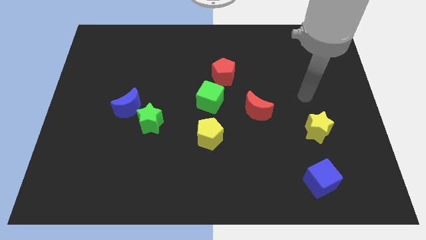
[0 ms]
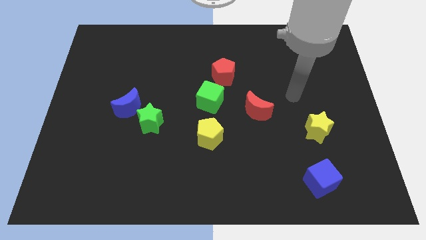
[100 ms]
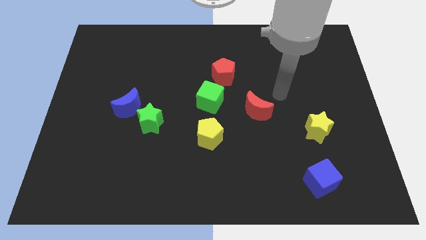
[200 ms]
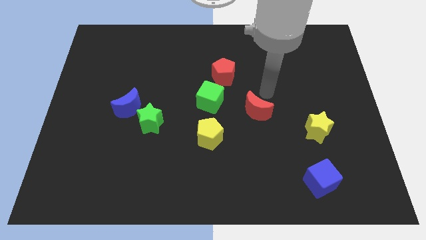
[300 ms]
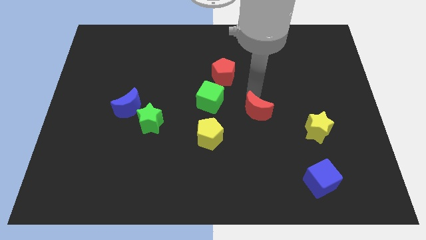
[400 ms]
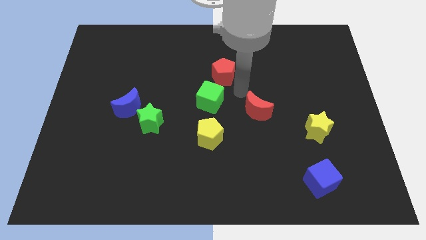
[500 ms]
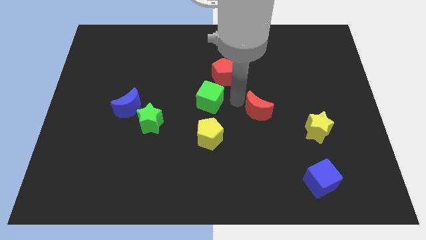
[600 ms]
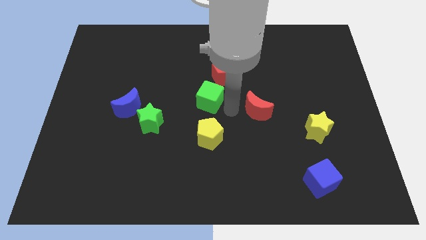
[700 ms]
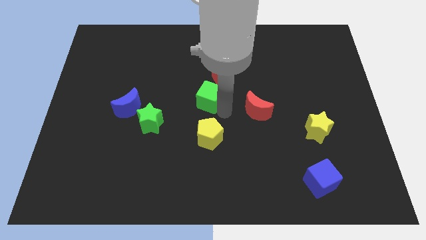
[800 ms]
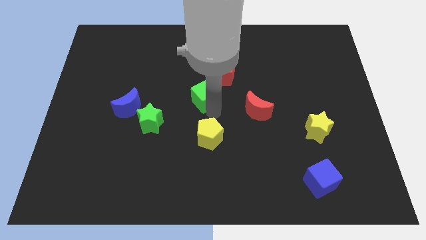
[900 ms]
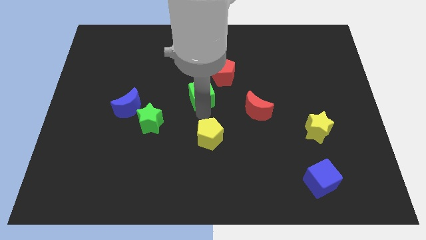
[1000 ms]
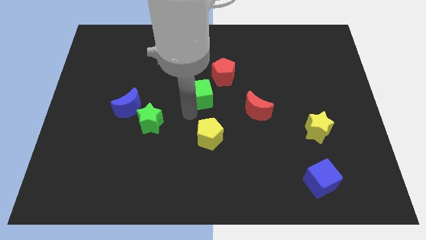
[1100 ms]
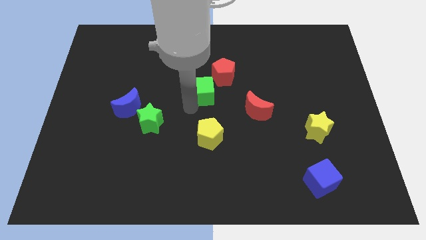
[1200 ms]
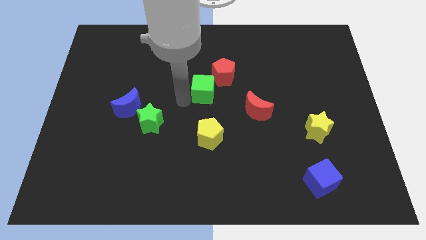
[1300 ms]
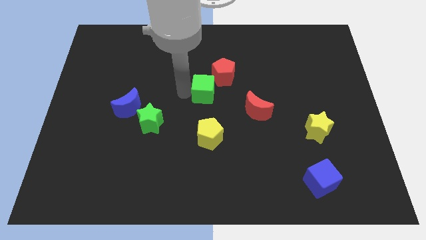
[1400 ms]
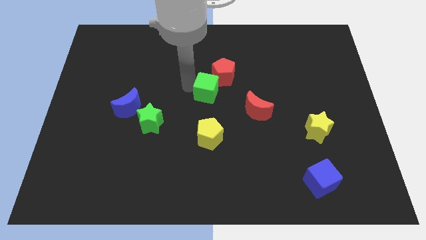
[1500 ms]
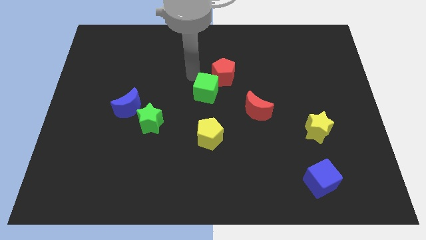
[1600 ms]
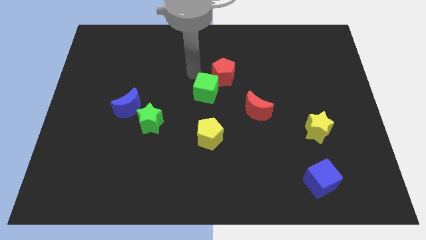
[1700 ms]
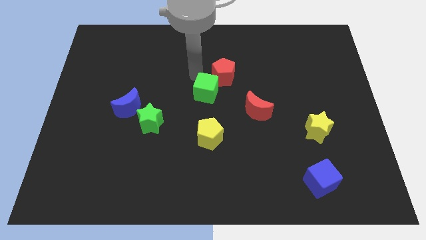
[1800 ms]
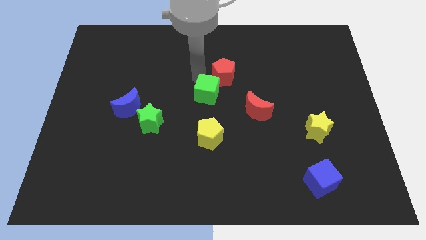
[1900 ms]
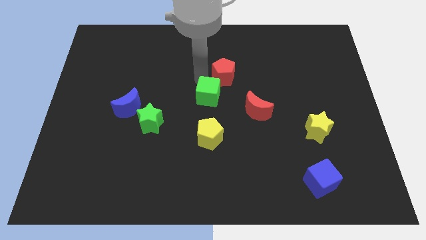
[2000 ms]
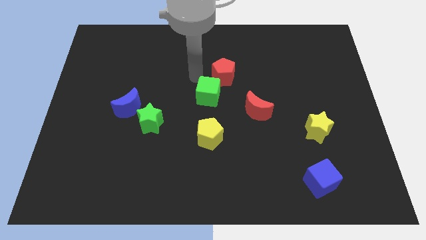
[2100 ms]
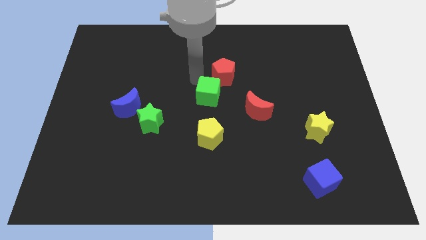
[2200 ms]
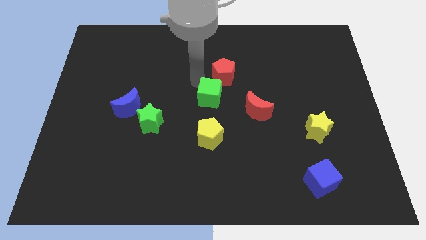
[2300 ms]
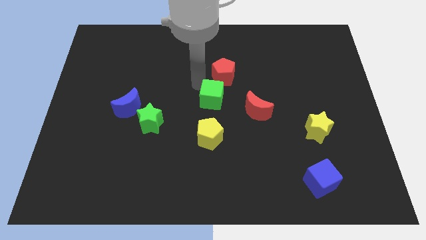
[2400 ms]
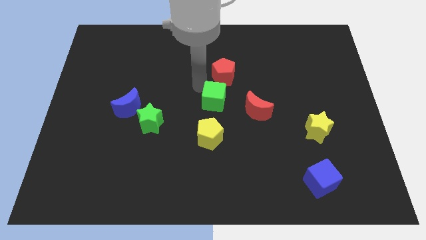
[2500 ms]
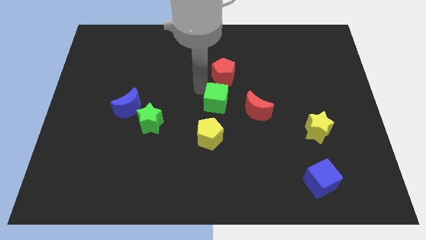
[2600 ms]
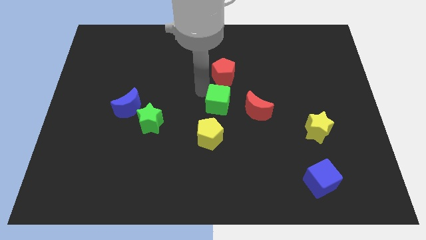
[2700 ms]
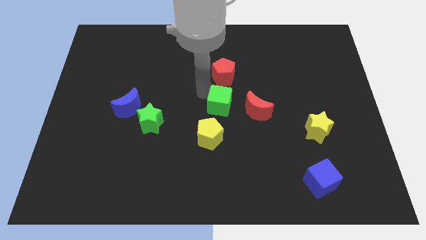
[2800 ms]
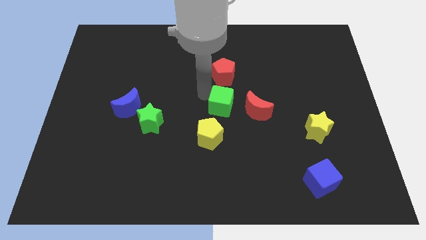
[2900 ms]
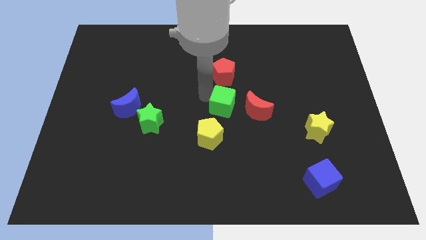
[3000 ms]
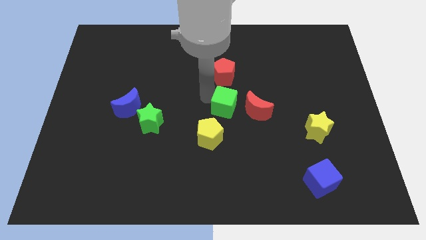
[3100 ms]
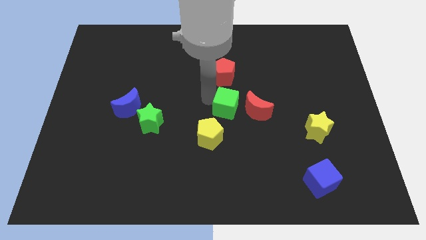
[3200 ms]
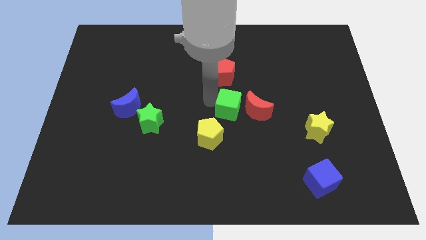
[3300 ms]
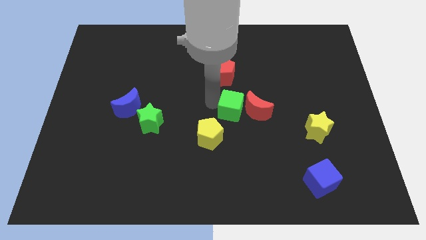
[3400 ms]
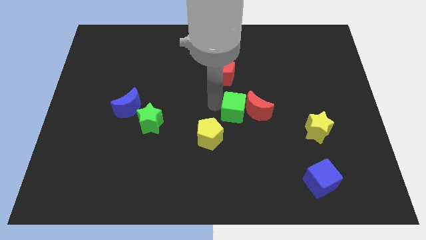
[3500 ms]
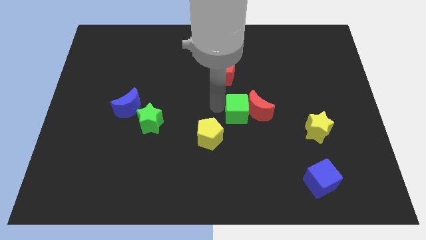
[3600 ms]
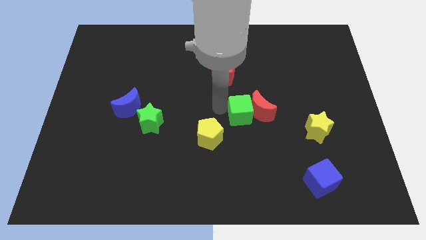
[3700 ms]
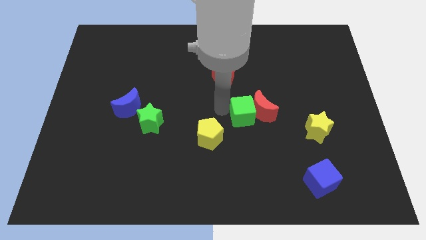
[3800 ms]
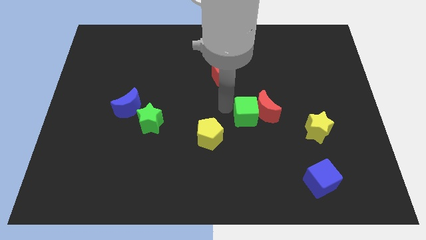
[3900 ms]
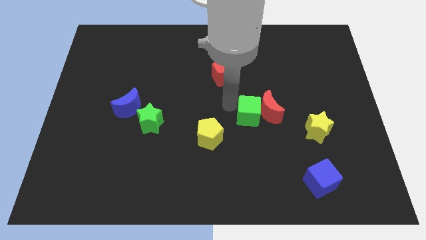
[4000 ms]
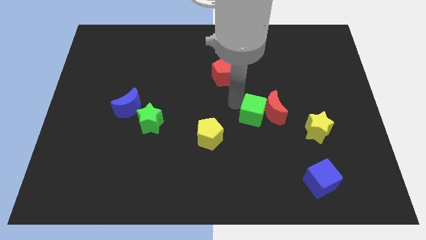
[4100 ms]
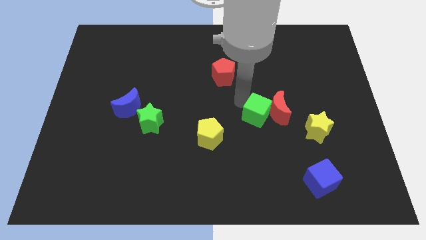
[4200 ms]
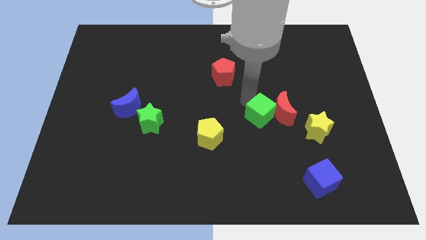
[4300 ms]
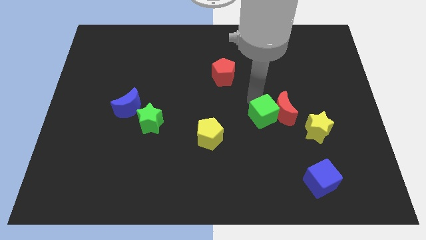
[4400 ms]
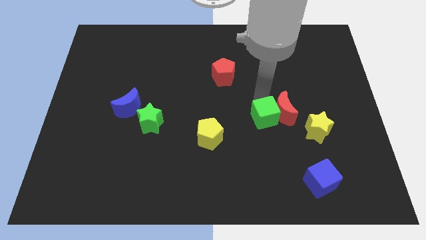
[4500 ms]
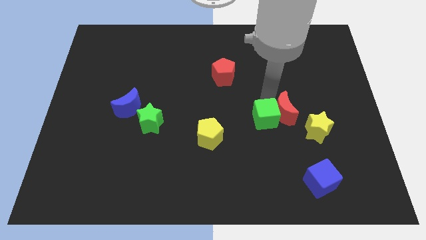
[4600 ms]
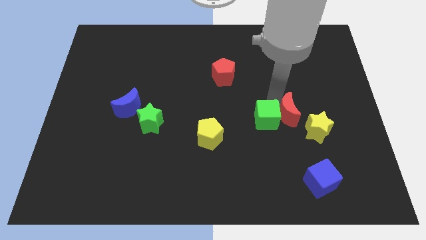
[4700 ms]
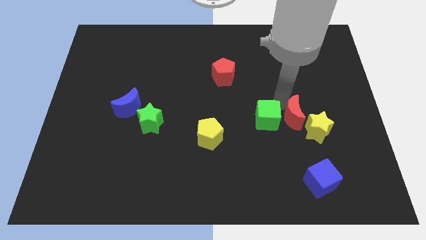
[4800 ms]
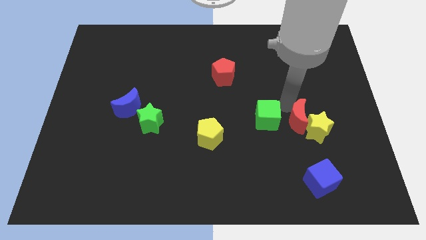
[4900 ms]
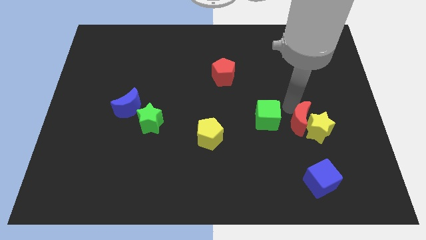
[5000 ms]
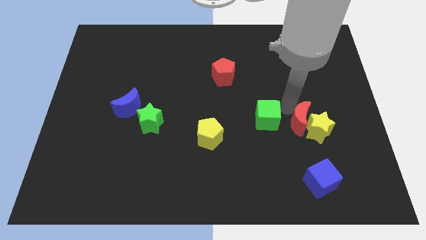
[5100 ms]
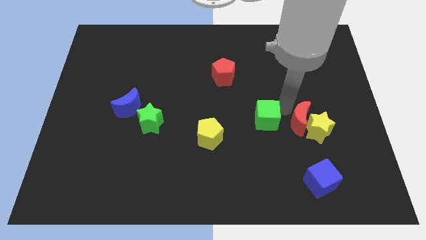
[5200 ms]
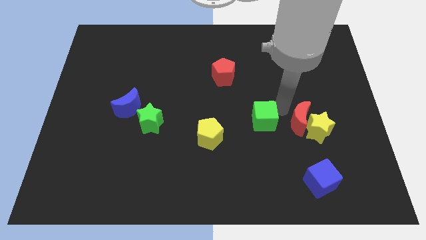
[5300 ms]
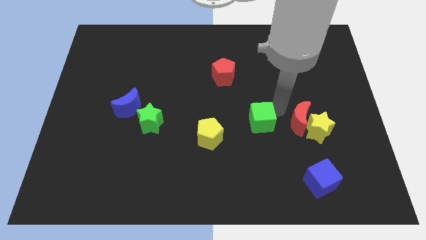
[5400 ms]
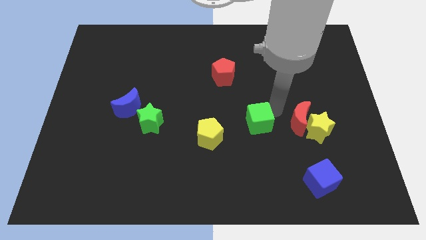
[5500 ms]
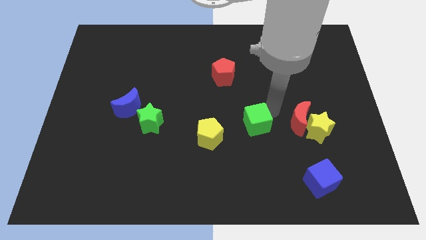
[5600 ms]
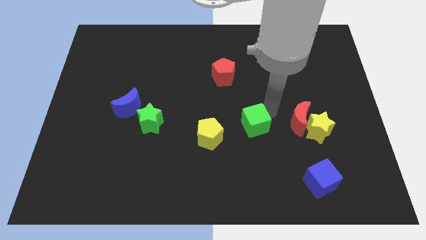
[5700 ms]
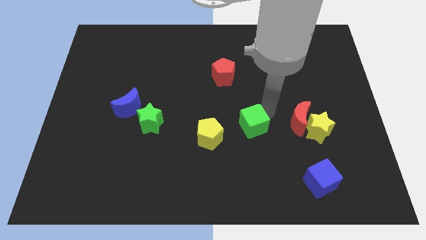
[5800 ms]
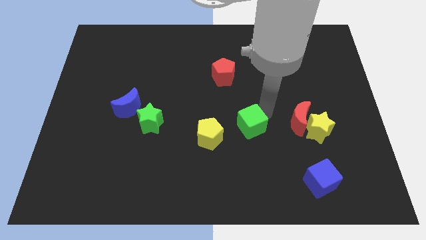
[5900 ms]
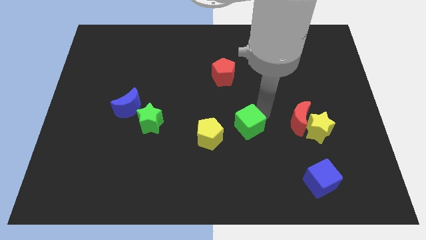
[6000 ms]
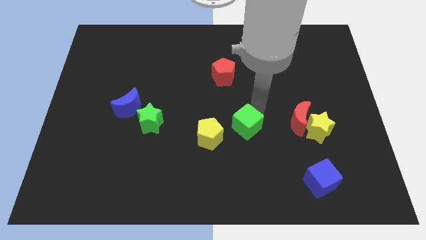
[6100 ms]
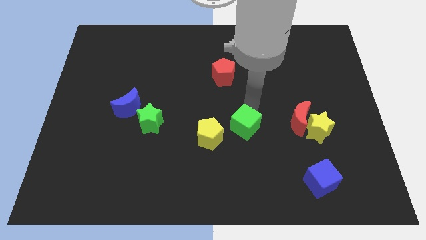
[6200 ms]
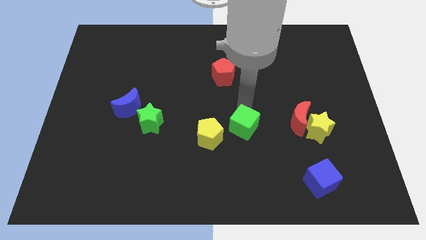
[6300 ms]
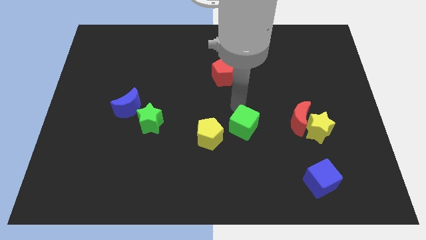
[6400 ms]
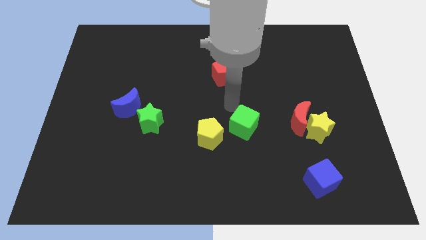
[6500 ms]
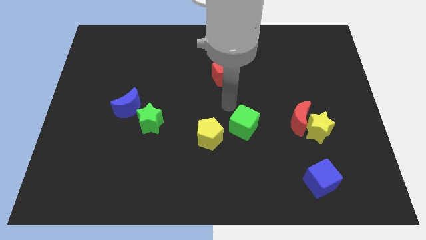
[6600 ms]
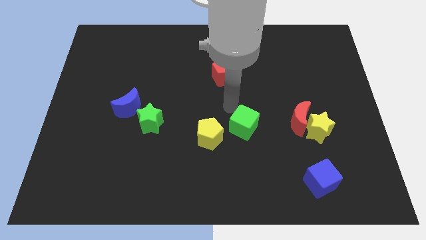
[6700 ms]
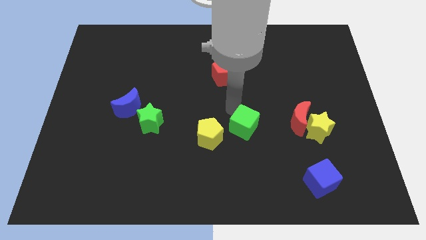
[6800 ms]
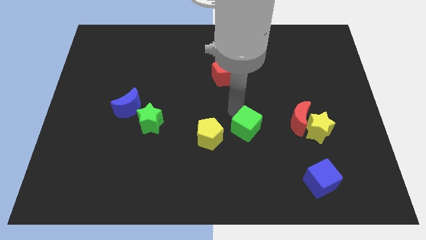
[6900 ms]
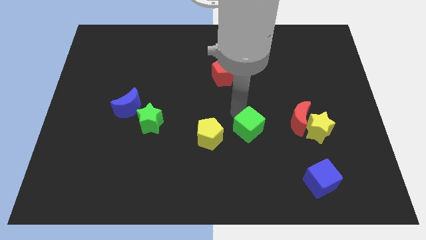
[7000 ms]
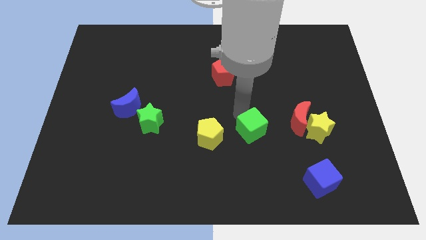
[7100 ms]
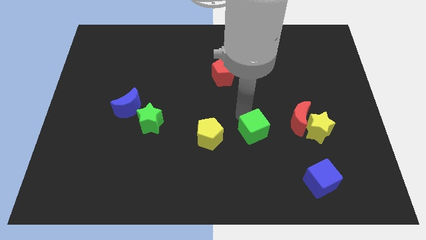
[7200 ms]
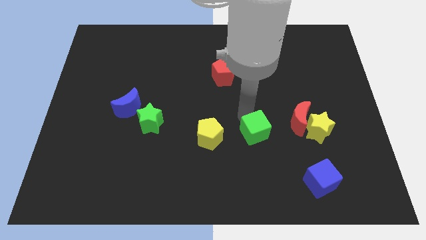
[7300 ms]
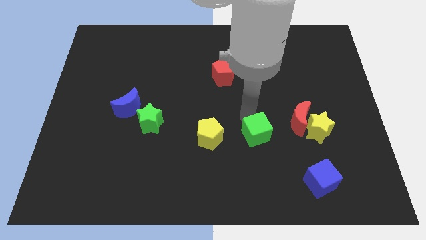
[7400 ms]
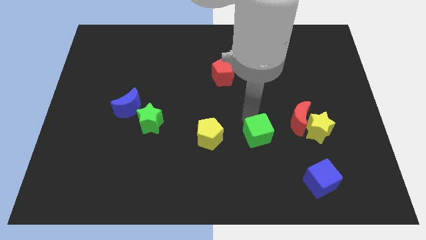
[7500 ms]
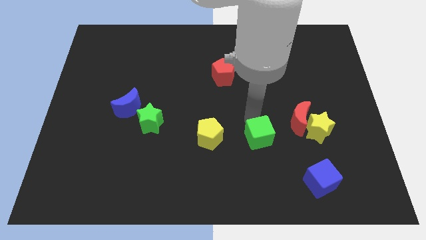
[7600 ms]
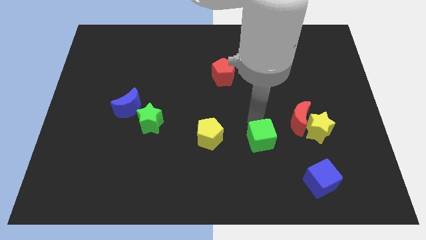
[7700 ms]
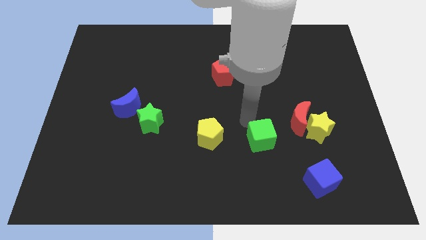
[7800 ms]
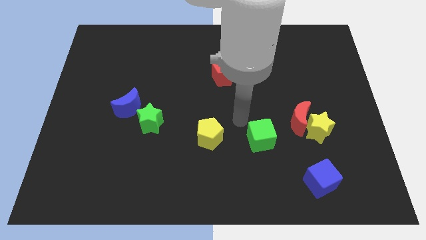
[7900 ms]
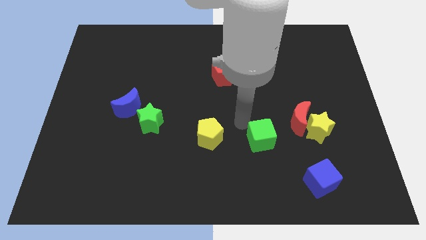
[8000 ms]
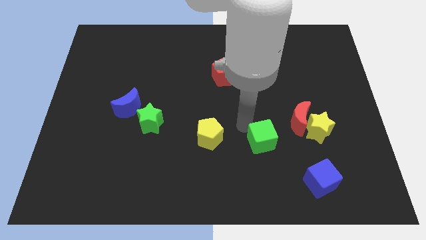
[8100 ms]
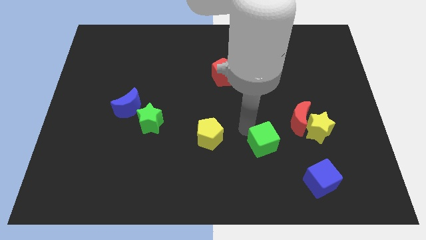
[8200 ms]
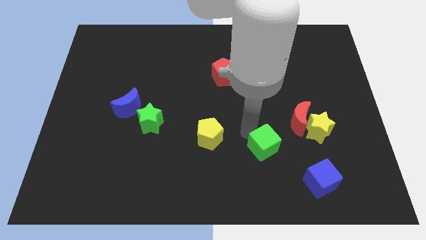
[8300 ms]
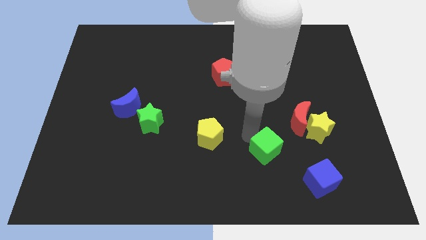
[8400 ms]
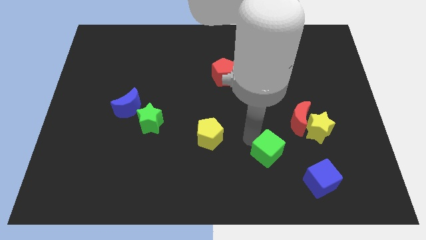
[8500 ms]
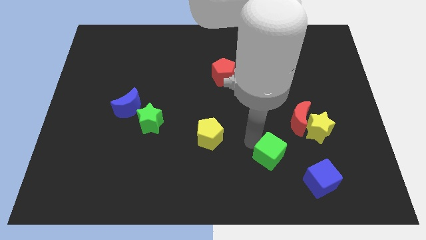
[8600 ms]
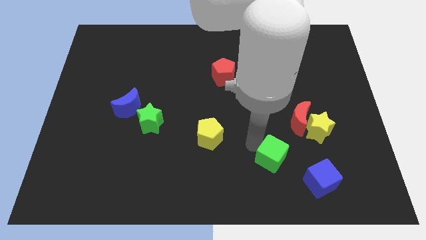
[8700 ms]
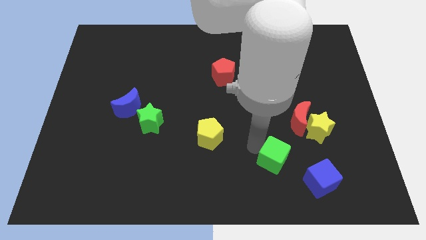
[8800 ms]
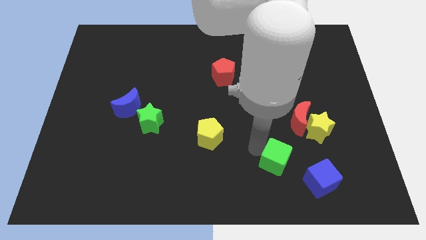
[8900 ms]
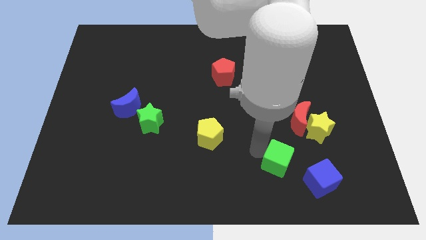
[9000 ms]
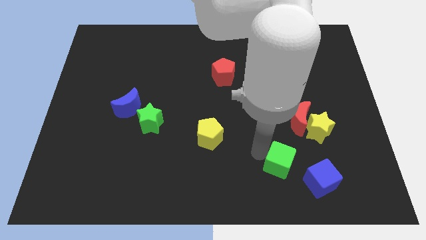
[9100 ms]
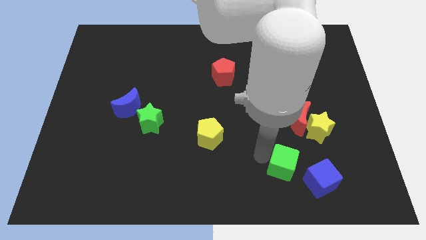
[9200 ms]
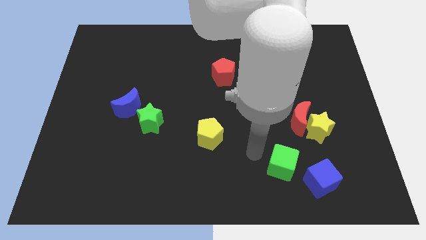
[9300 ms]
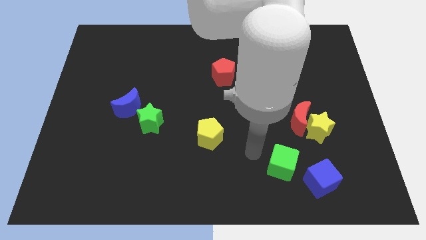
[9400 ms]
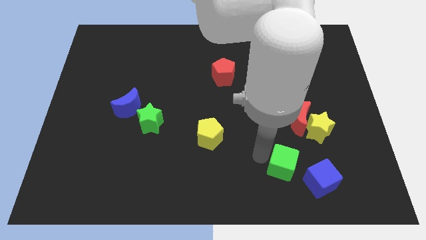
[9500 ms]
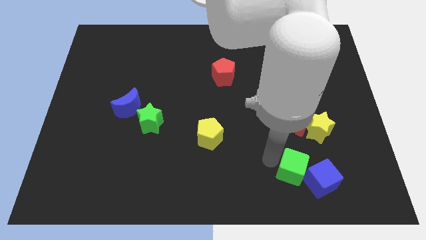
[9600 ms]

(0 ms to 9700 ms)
move the green cube towards the blue cube
